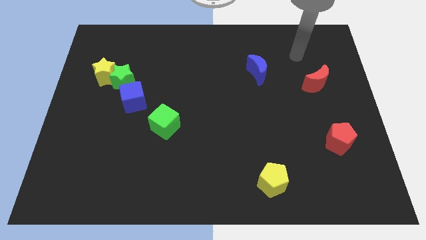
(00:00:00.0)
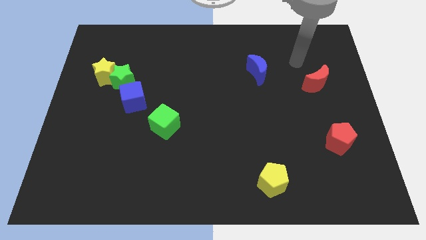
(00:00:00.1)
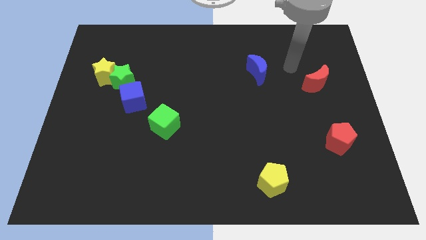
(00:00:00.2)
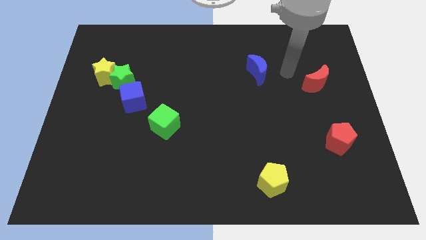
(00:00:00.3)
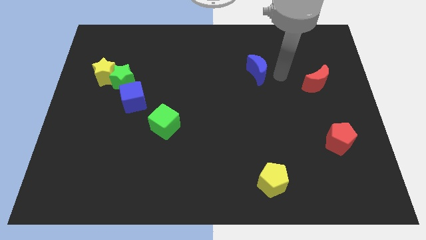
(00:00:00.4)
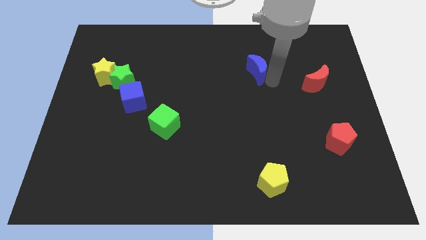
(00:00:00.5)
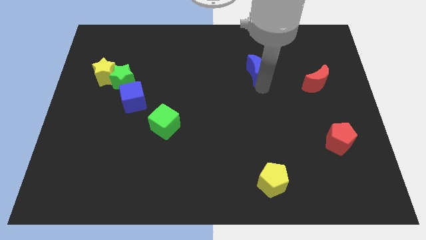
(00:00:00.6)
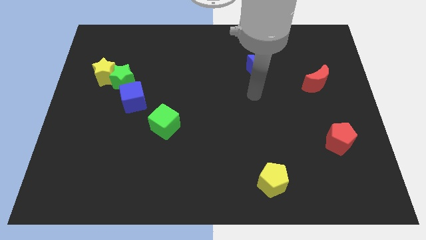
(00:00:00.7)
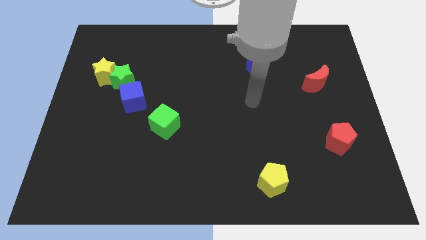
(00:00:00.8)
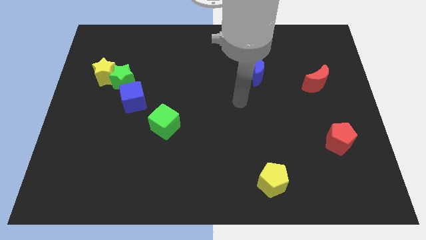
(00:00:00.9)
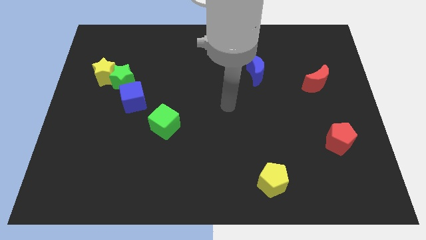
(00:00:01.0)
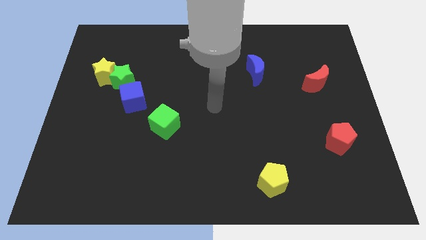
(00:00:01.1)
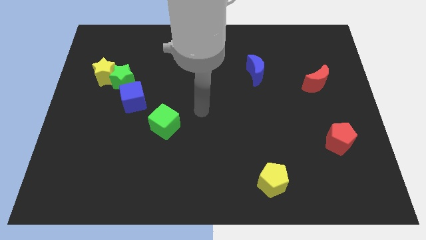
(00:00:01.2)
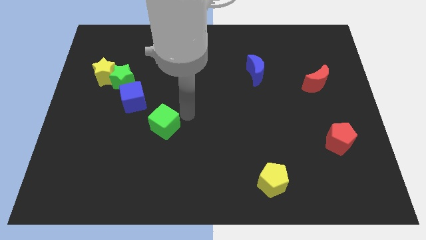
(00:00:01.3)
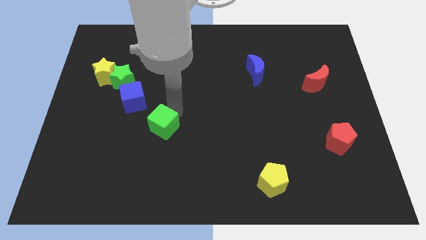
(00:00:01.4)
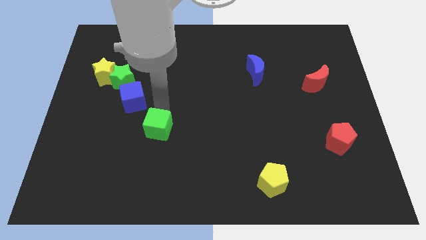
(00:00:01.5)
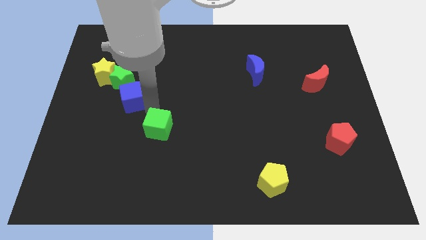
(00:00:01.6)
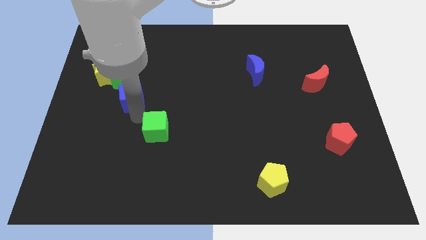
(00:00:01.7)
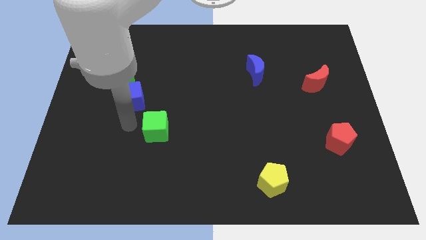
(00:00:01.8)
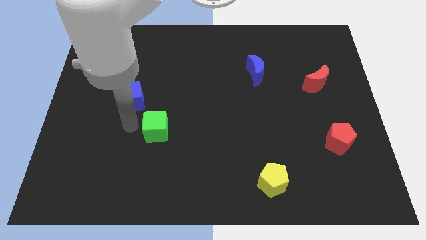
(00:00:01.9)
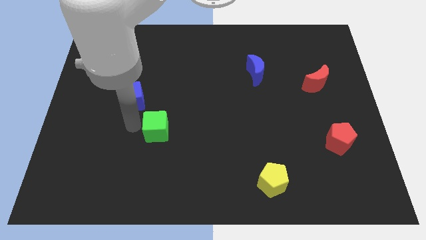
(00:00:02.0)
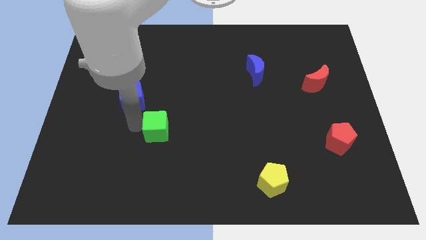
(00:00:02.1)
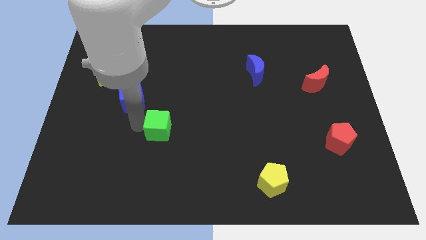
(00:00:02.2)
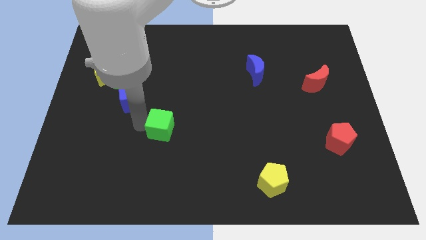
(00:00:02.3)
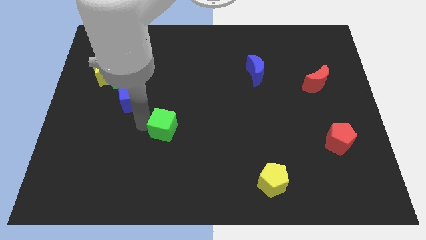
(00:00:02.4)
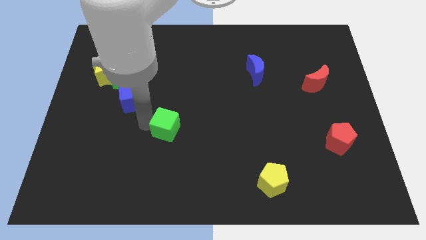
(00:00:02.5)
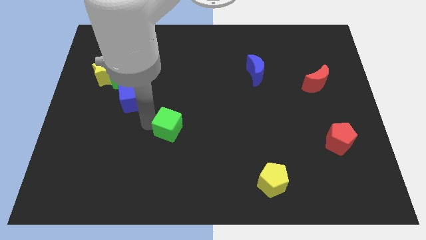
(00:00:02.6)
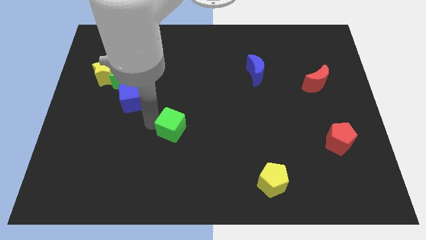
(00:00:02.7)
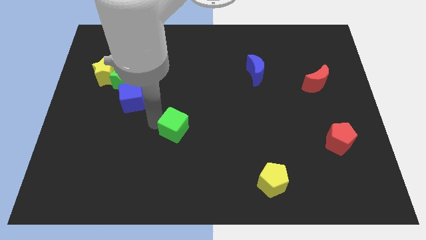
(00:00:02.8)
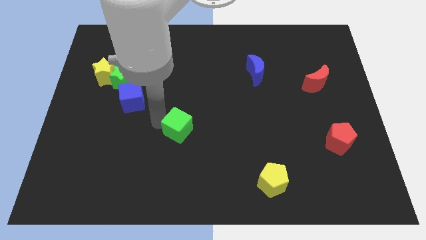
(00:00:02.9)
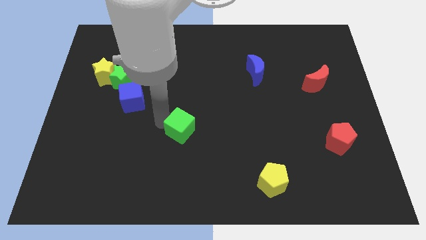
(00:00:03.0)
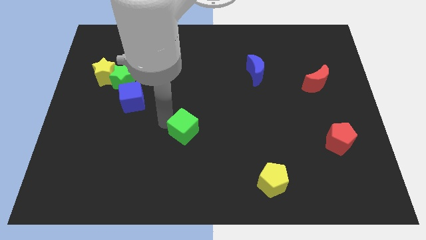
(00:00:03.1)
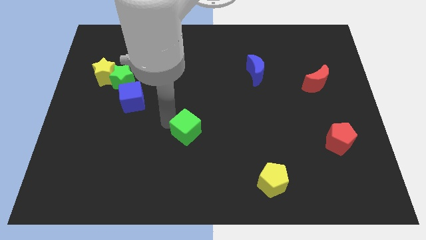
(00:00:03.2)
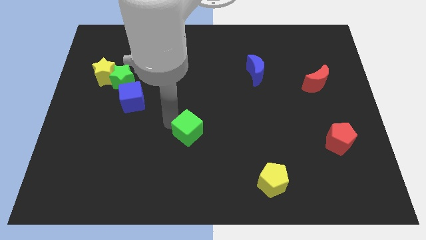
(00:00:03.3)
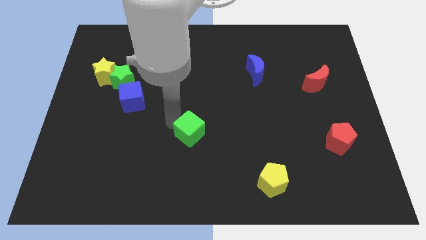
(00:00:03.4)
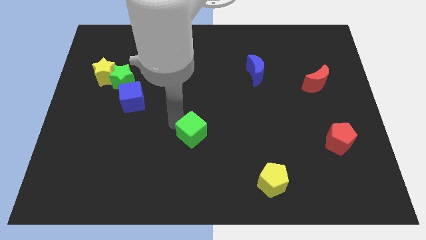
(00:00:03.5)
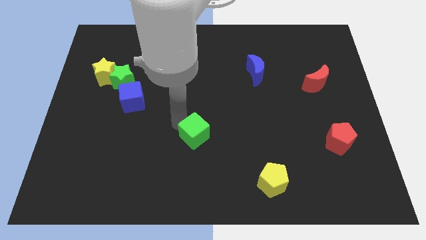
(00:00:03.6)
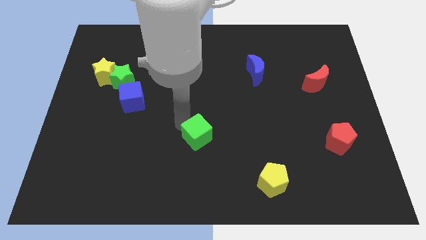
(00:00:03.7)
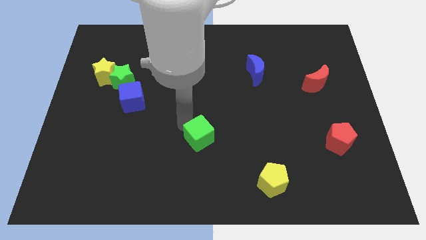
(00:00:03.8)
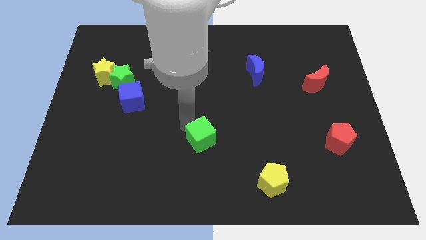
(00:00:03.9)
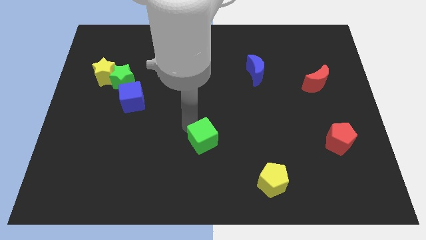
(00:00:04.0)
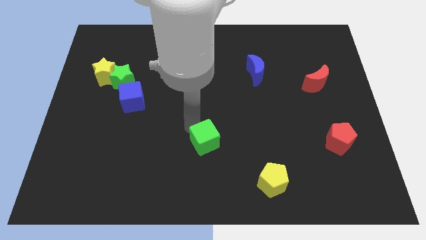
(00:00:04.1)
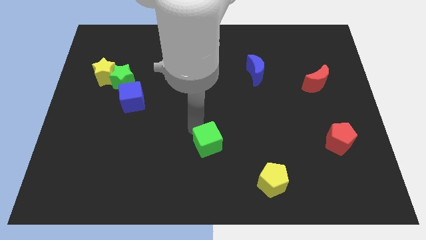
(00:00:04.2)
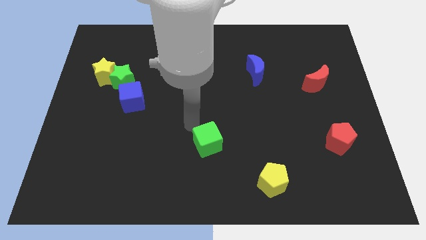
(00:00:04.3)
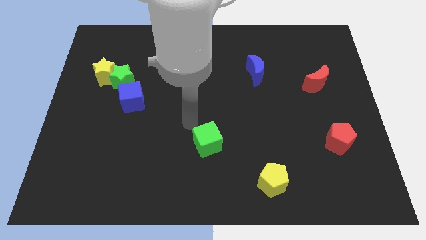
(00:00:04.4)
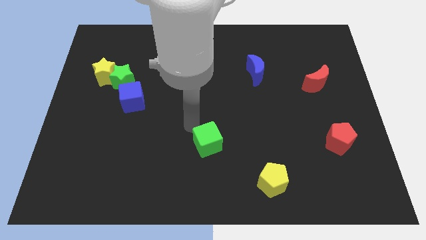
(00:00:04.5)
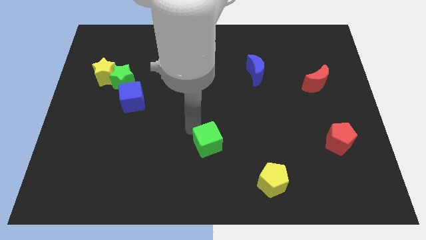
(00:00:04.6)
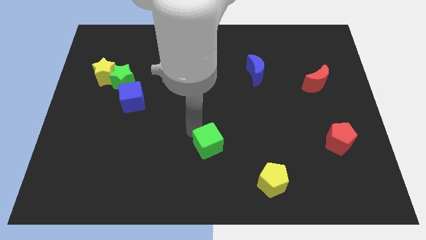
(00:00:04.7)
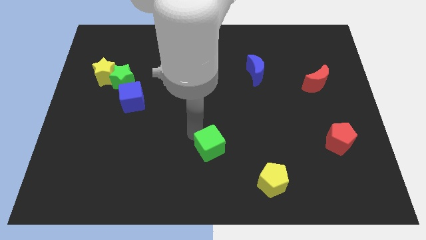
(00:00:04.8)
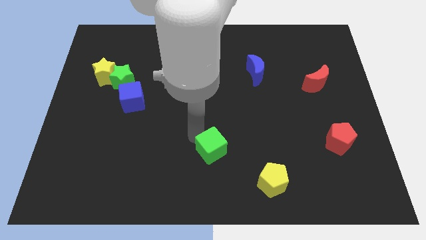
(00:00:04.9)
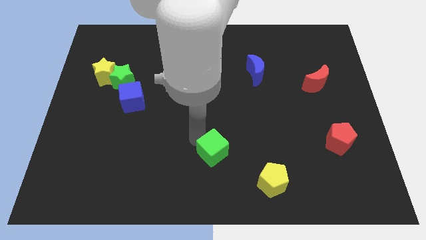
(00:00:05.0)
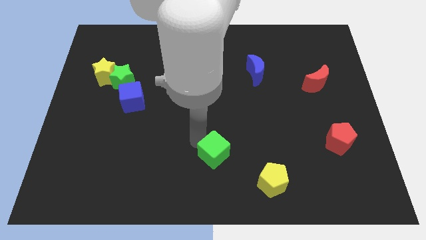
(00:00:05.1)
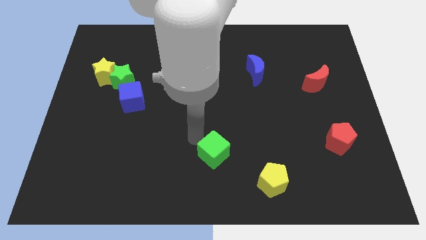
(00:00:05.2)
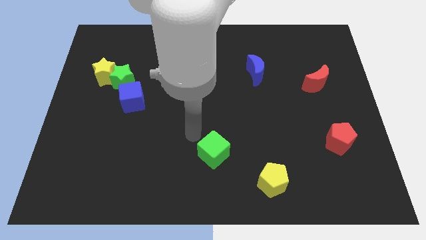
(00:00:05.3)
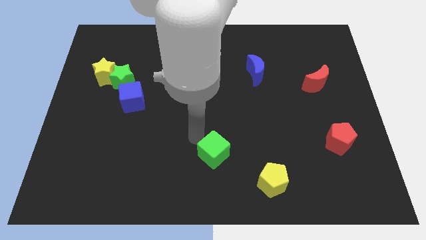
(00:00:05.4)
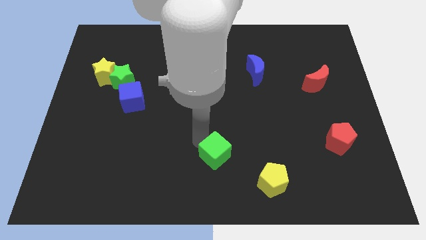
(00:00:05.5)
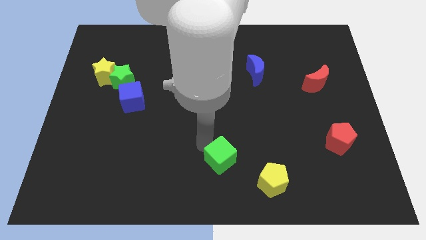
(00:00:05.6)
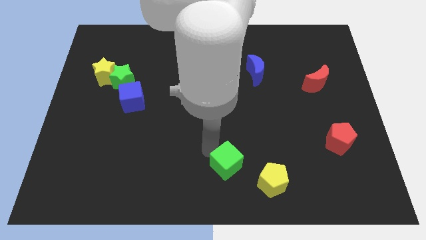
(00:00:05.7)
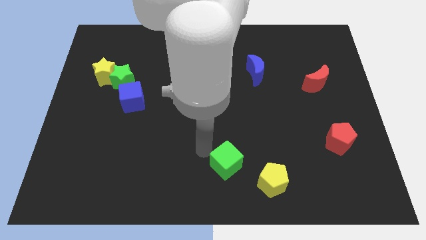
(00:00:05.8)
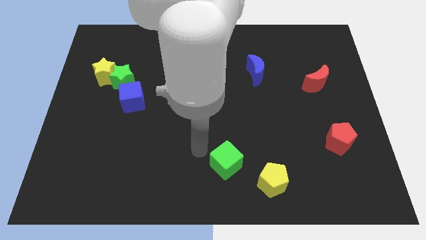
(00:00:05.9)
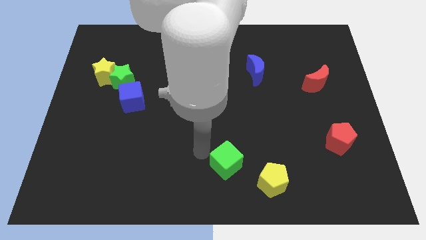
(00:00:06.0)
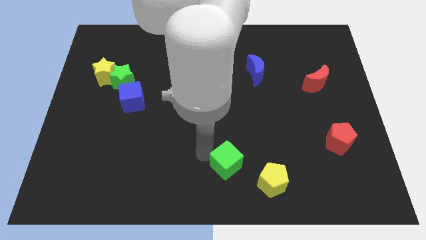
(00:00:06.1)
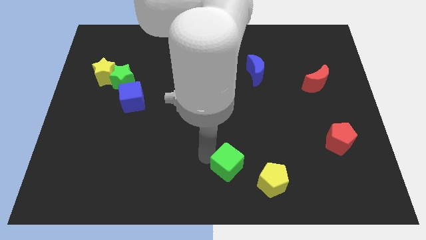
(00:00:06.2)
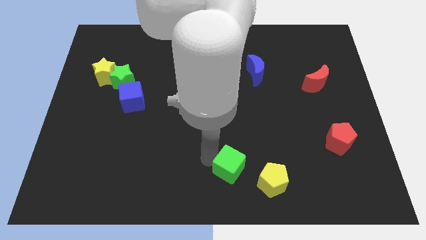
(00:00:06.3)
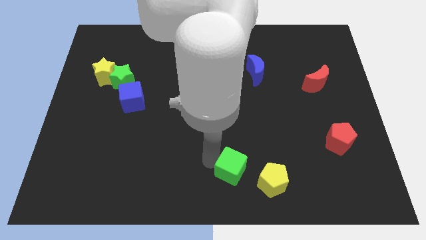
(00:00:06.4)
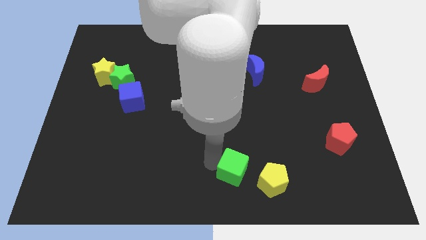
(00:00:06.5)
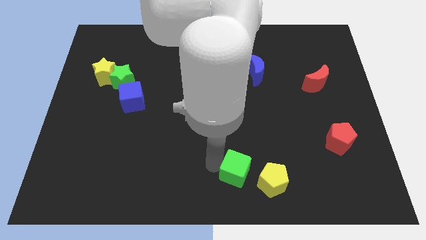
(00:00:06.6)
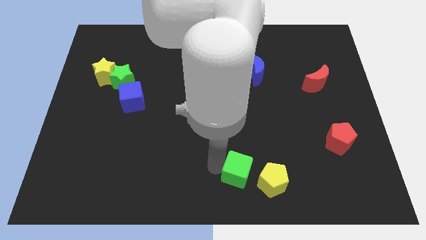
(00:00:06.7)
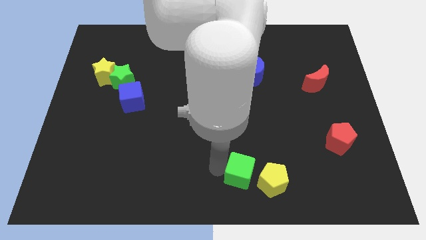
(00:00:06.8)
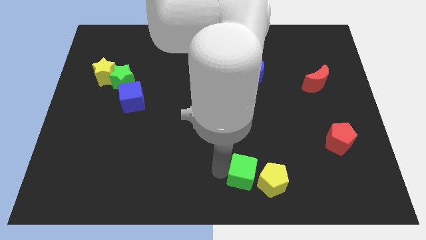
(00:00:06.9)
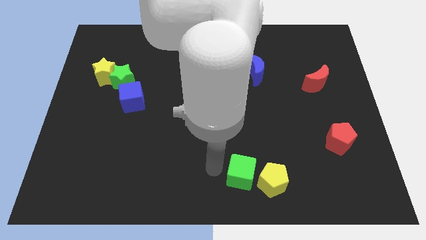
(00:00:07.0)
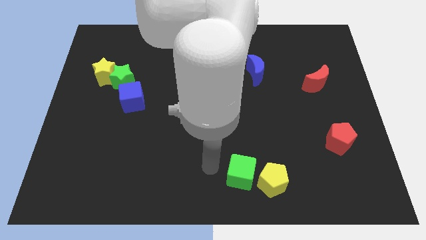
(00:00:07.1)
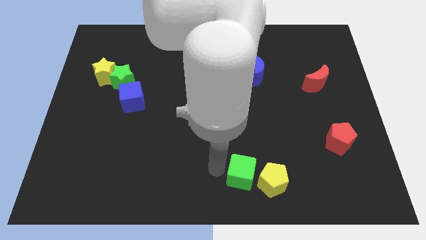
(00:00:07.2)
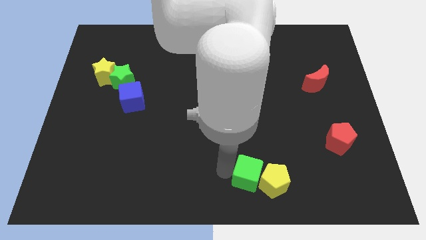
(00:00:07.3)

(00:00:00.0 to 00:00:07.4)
put the green cube next to the yellow pentagon

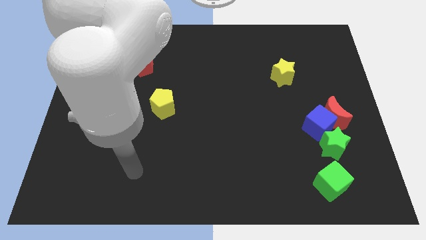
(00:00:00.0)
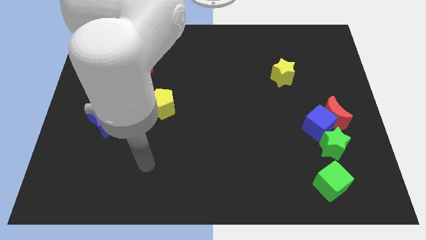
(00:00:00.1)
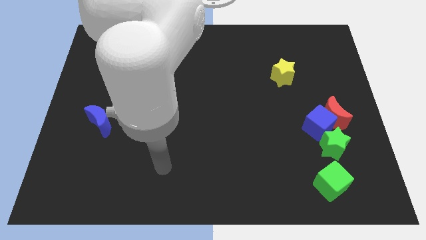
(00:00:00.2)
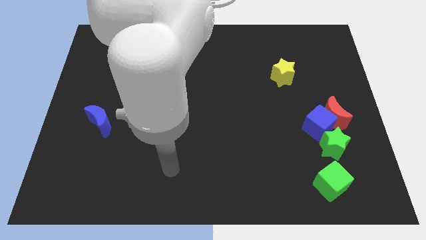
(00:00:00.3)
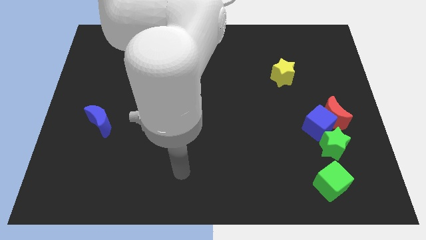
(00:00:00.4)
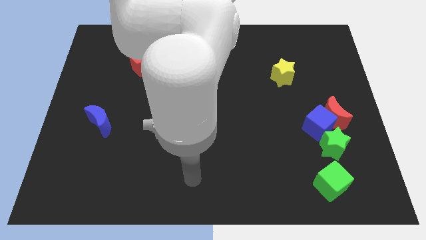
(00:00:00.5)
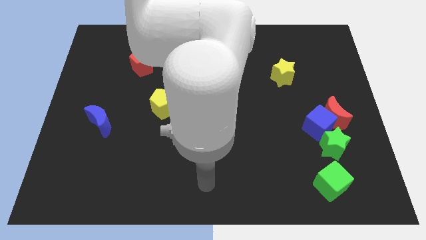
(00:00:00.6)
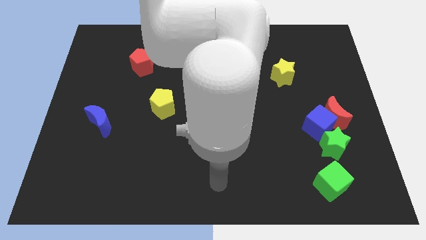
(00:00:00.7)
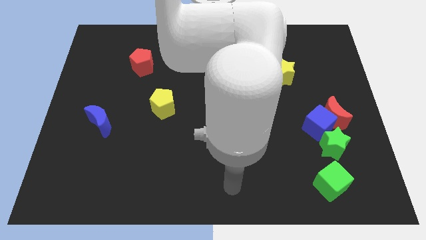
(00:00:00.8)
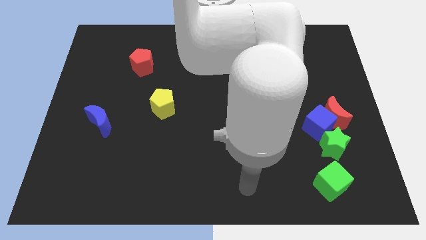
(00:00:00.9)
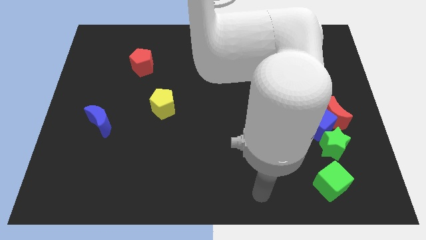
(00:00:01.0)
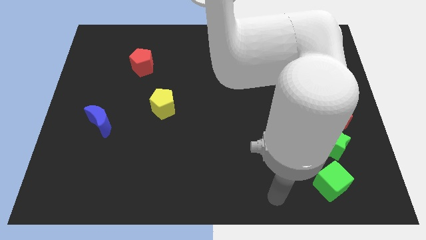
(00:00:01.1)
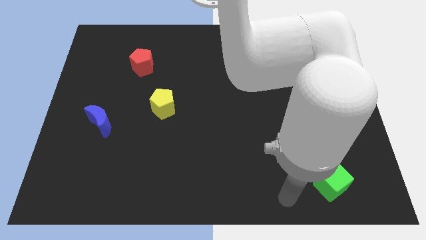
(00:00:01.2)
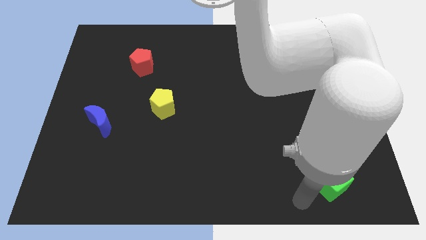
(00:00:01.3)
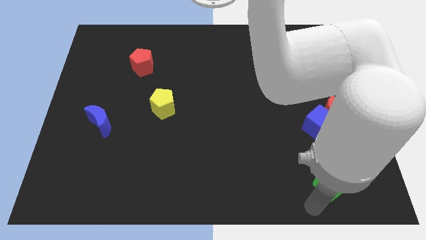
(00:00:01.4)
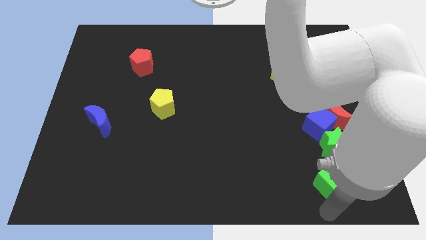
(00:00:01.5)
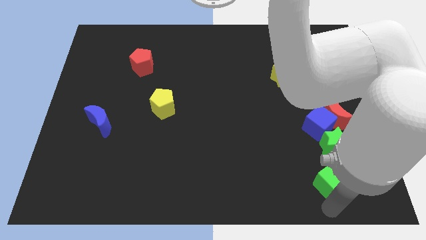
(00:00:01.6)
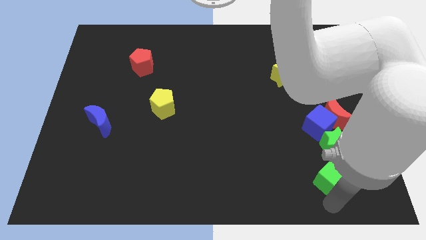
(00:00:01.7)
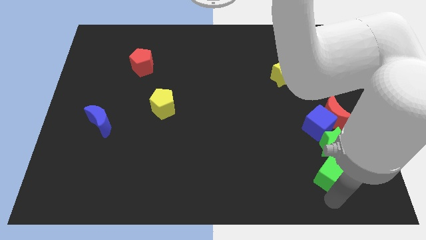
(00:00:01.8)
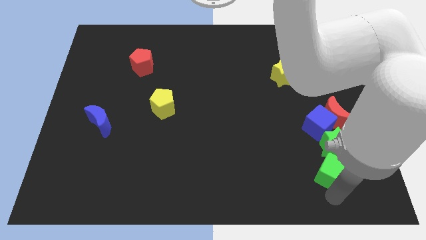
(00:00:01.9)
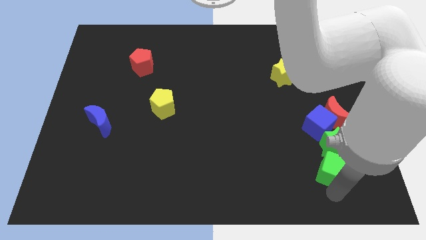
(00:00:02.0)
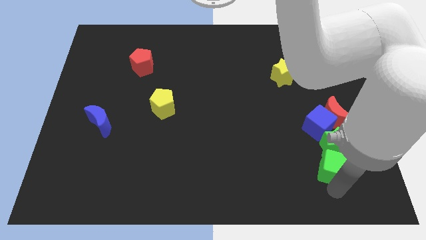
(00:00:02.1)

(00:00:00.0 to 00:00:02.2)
push the green cube to the green star
